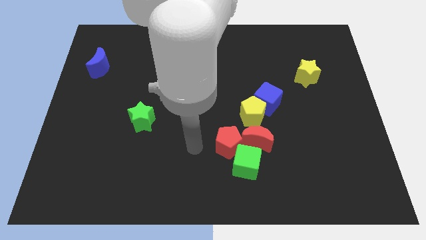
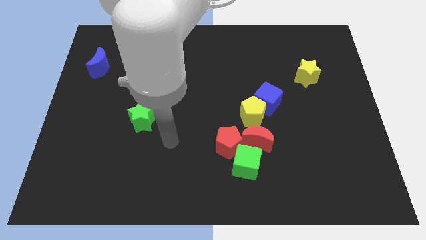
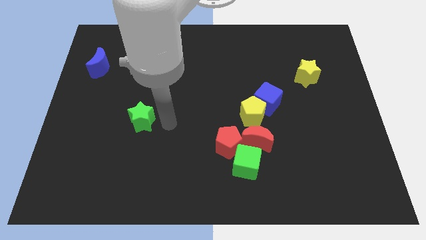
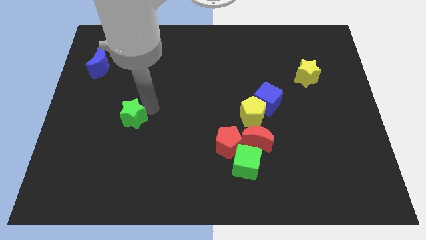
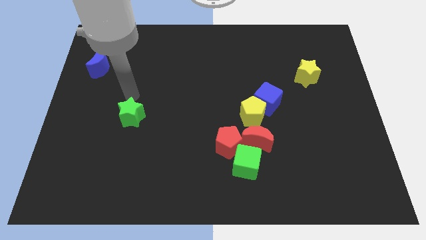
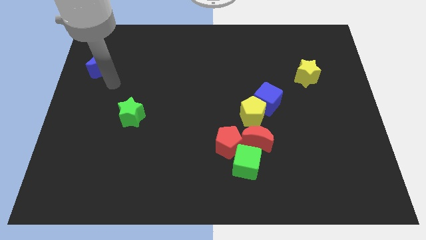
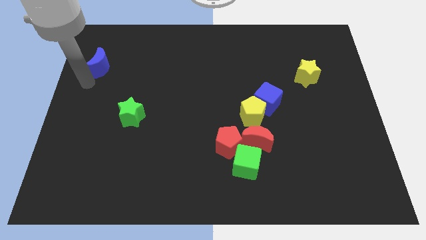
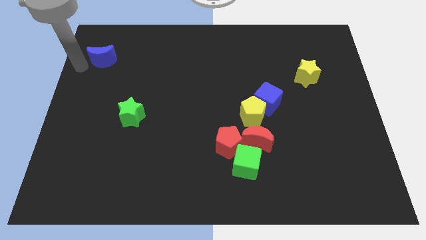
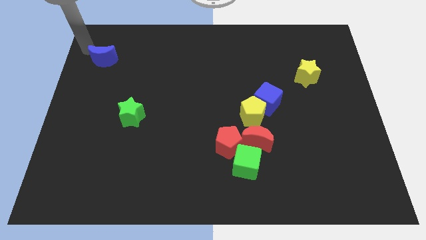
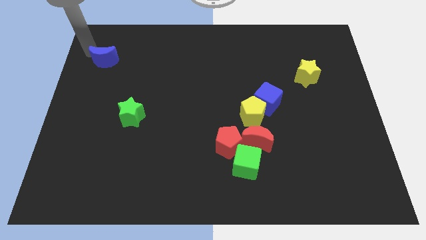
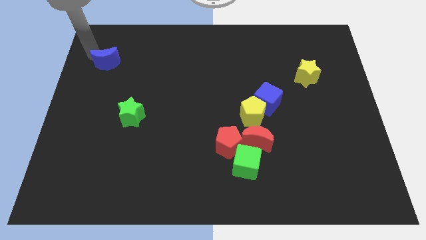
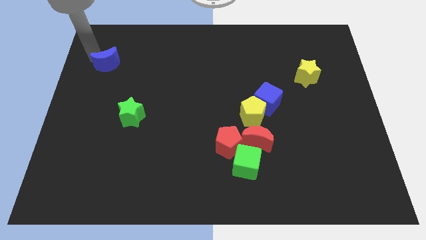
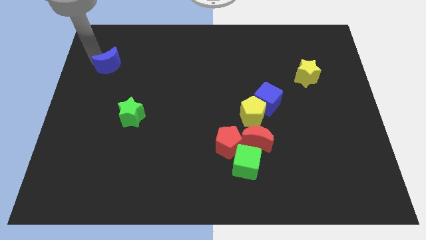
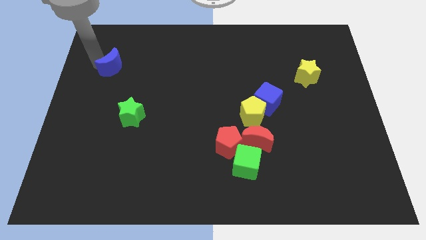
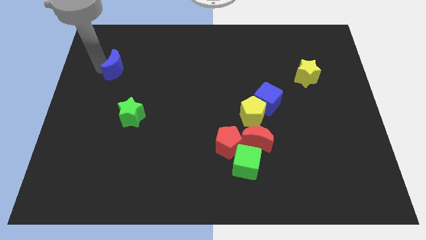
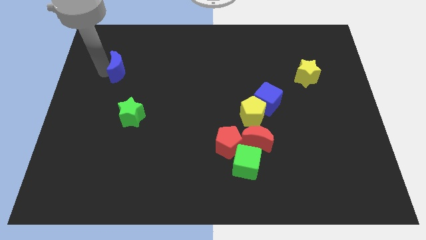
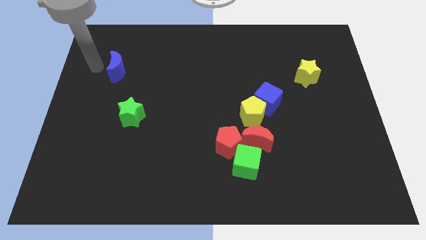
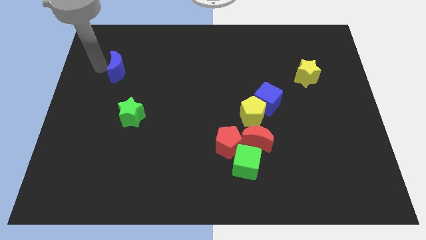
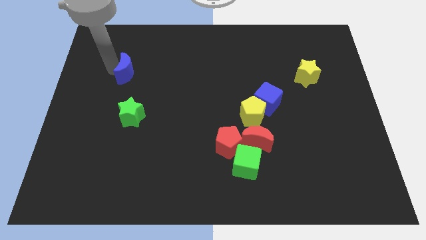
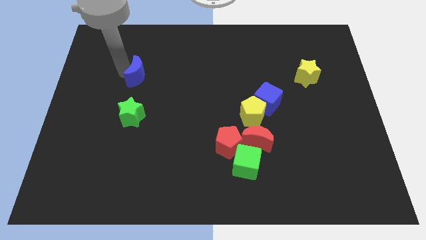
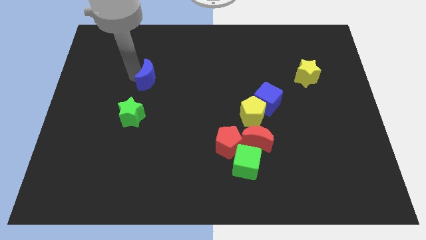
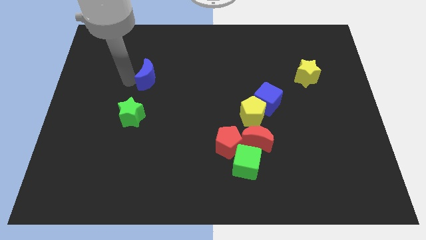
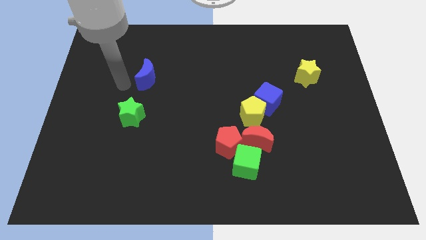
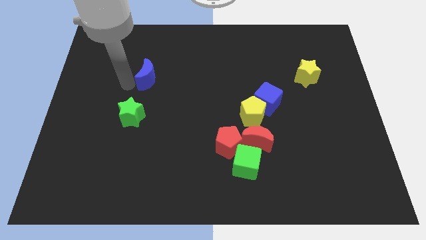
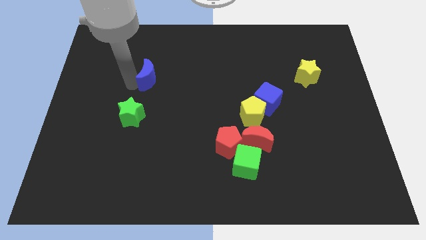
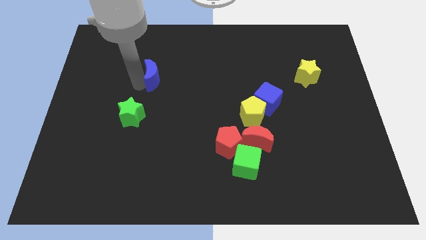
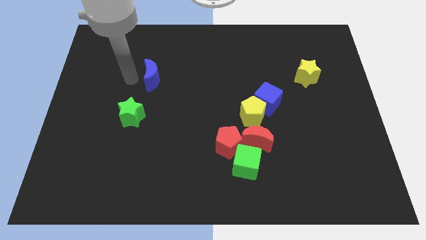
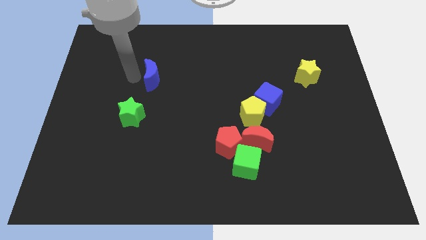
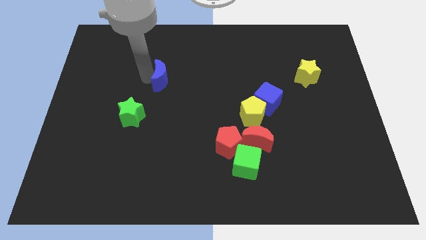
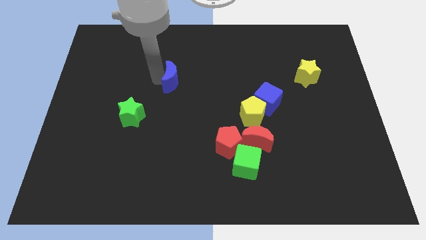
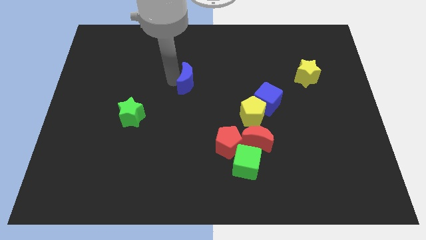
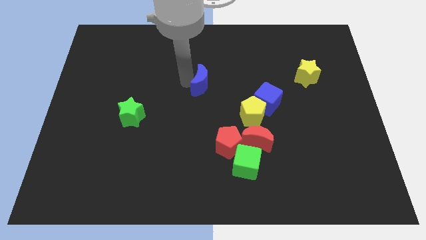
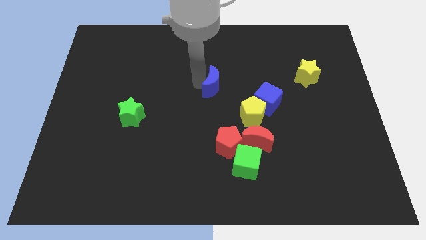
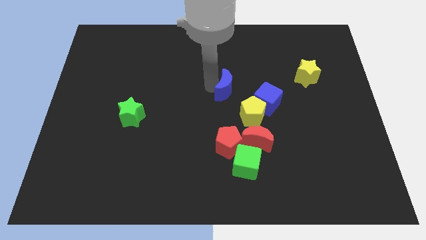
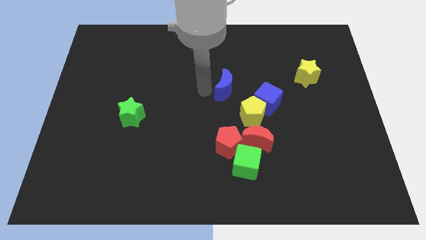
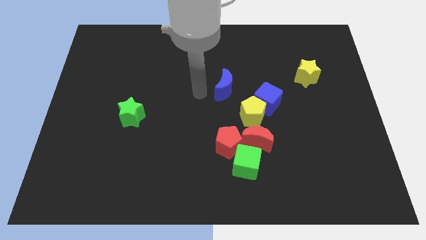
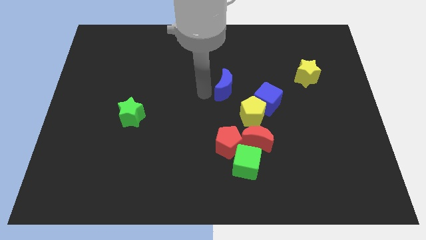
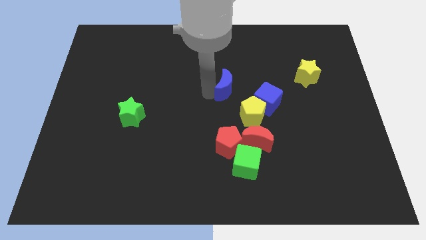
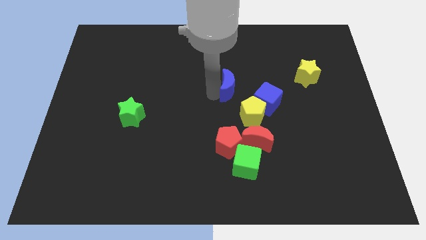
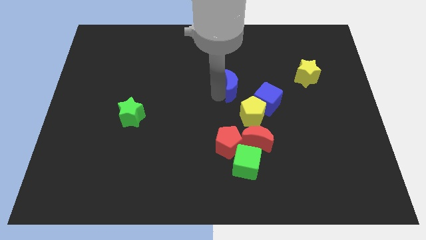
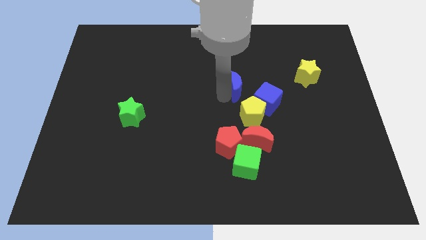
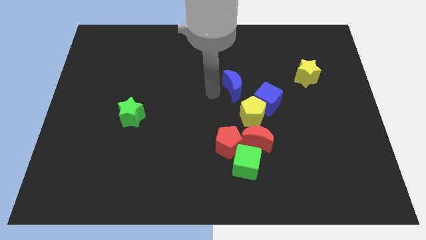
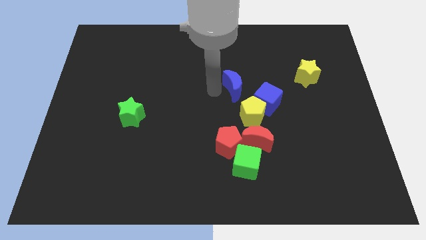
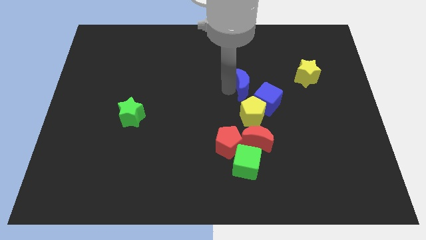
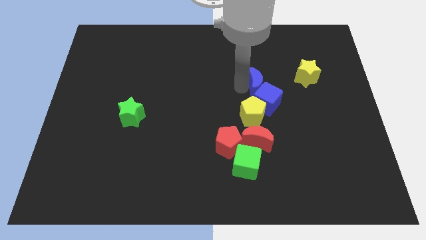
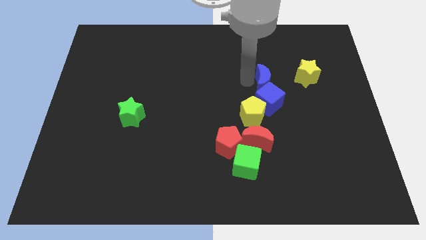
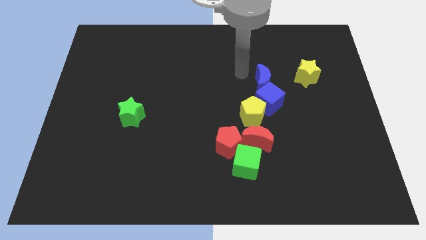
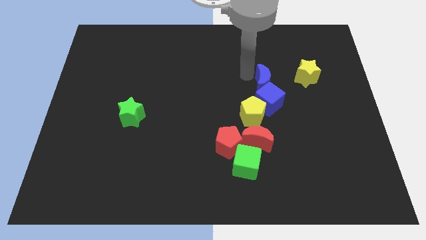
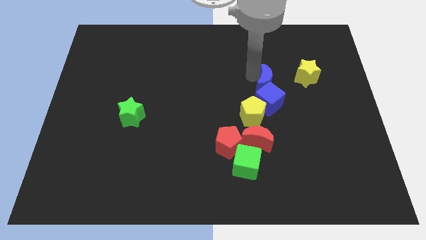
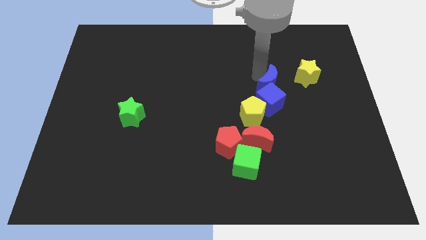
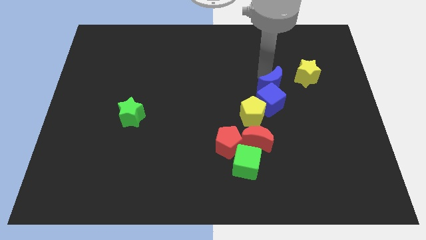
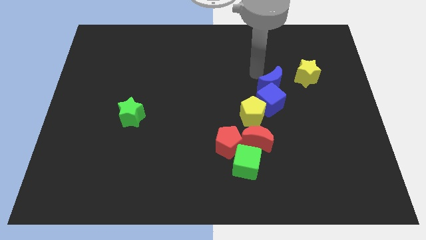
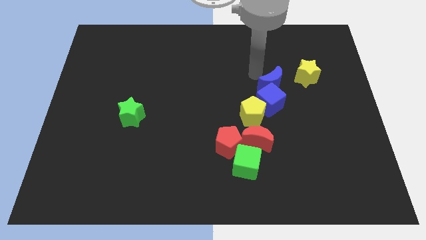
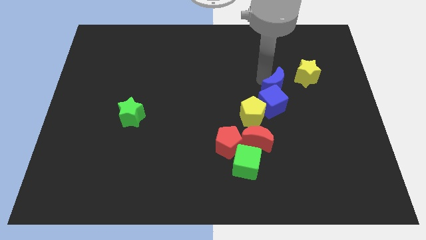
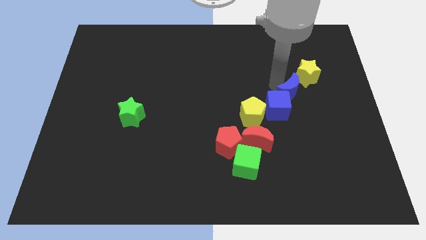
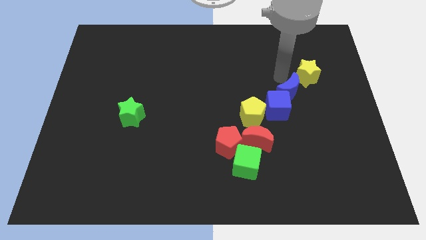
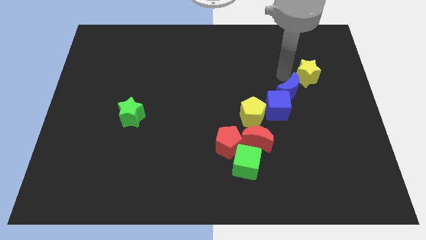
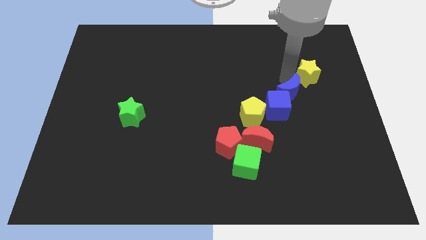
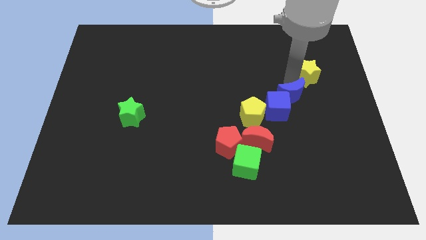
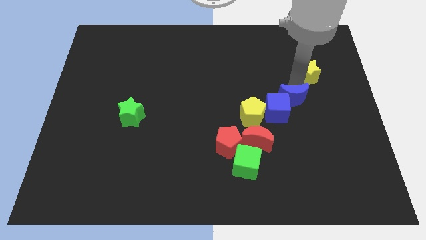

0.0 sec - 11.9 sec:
put the blue moon to the right of the yellow pentagon

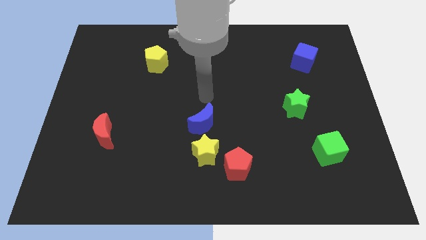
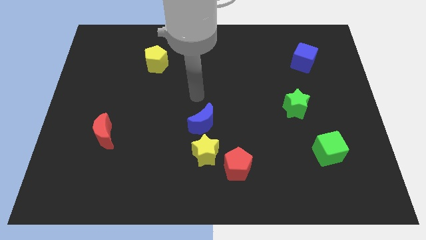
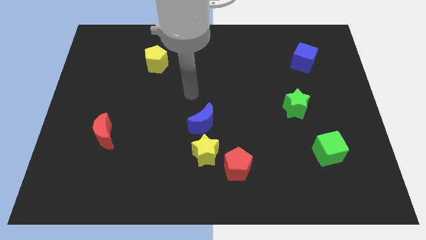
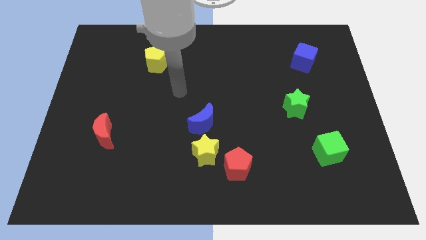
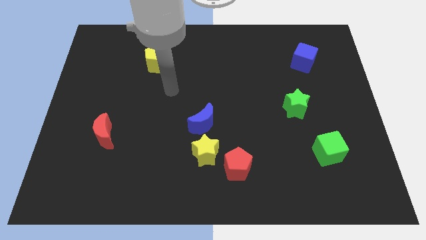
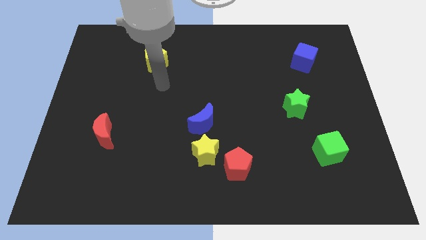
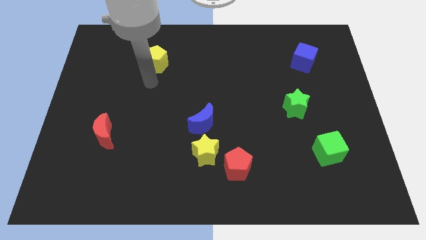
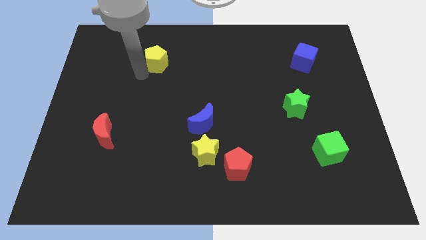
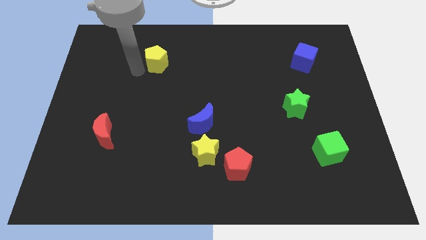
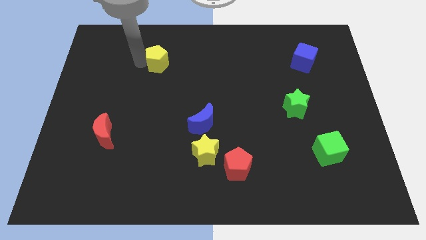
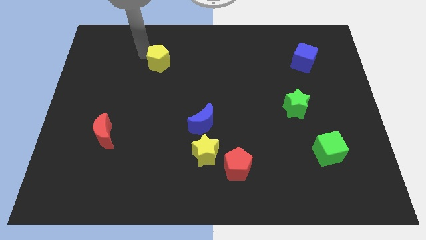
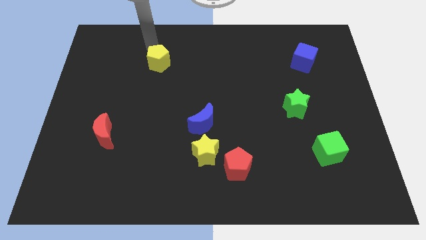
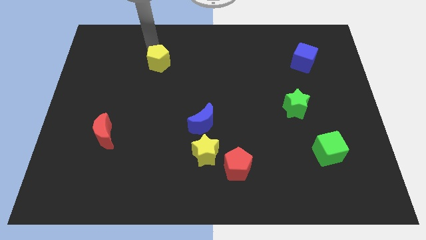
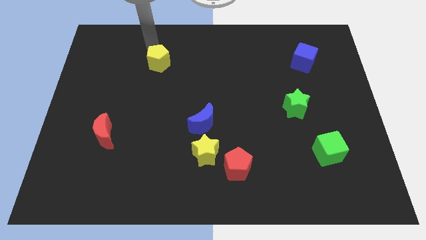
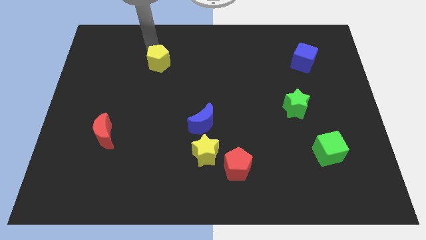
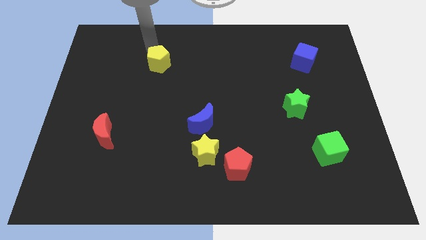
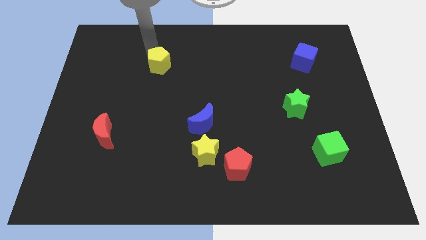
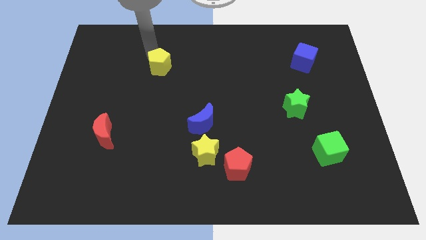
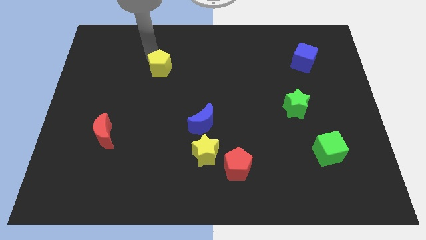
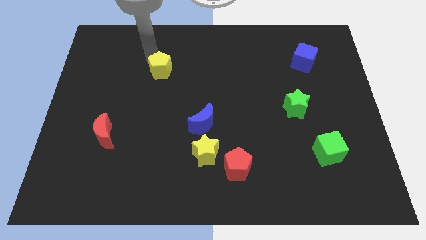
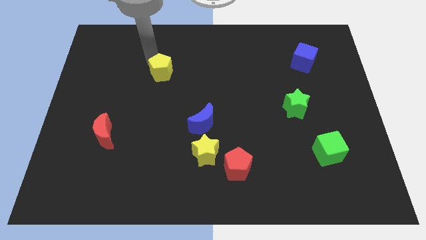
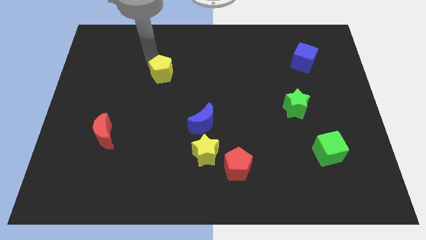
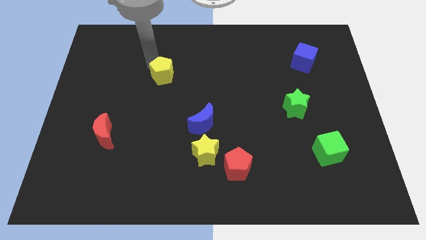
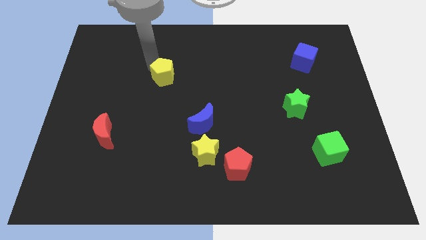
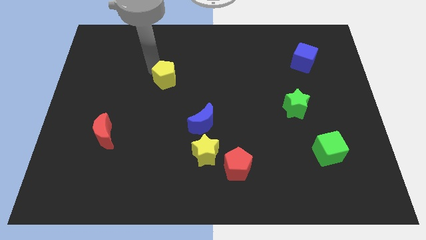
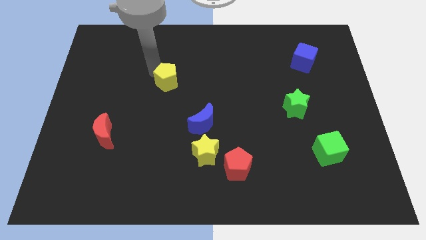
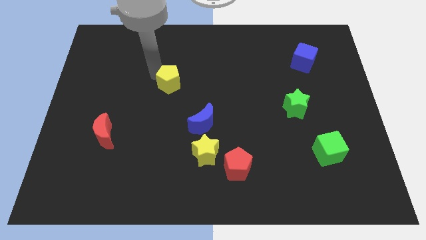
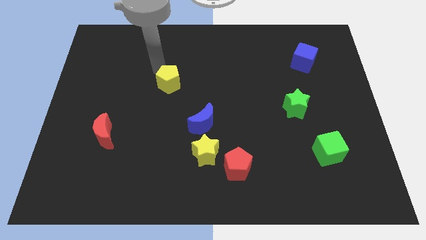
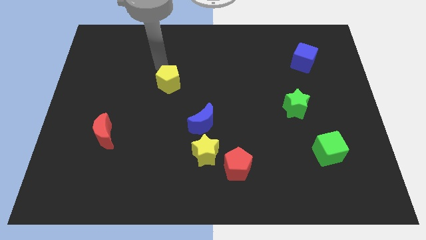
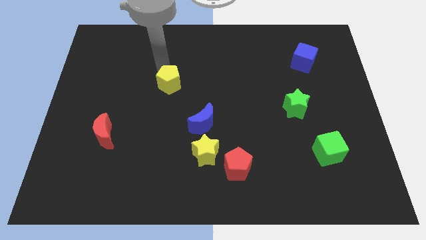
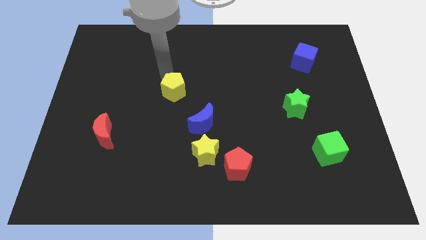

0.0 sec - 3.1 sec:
push the yellow pentagon diagonally up and to the left of the blue moon
